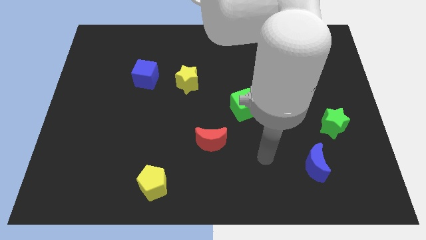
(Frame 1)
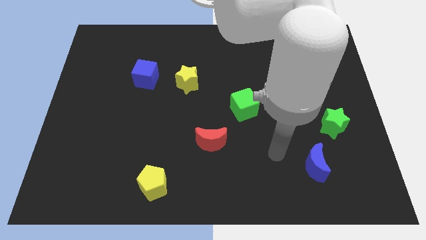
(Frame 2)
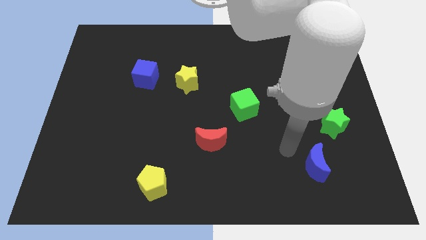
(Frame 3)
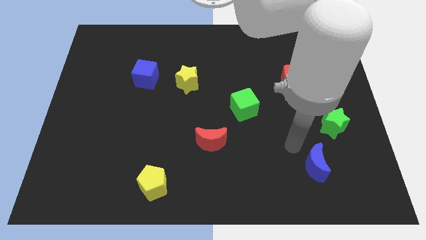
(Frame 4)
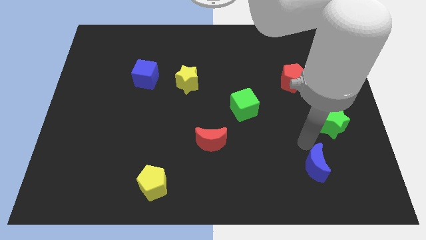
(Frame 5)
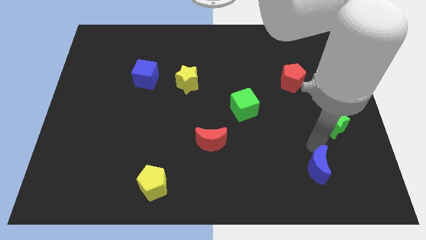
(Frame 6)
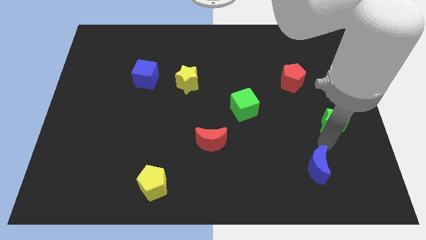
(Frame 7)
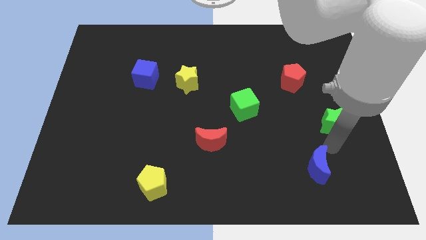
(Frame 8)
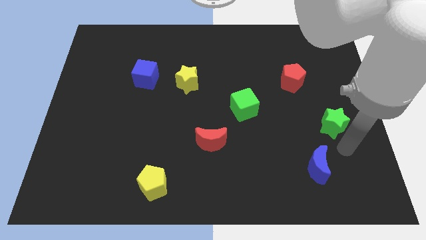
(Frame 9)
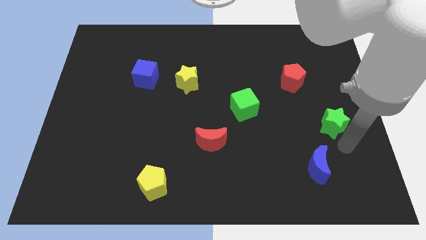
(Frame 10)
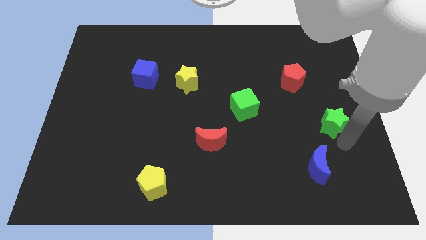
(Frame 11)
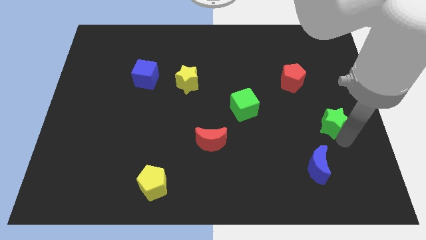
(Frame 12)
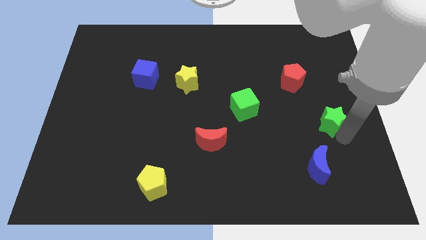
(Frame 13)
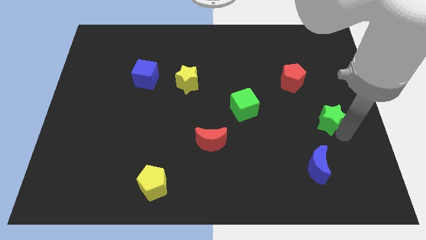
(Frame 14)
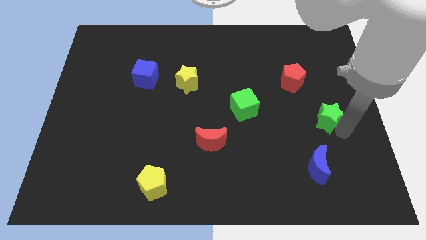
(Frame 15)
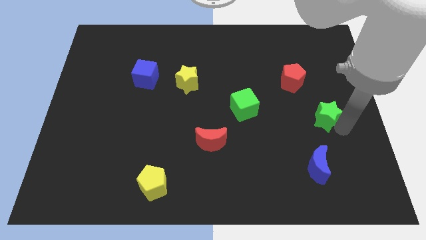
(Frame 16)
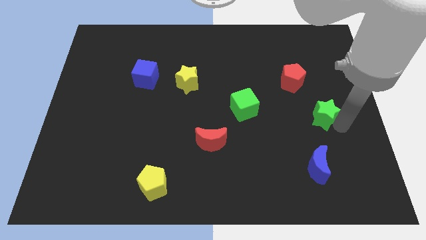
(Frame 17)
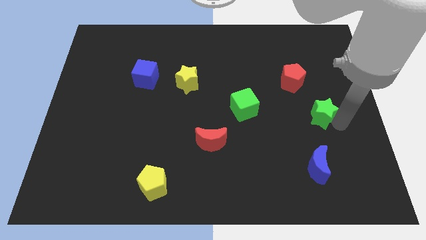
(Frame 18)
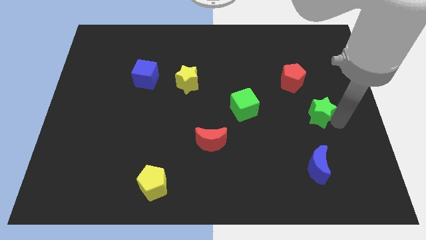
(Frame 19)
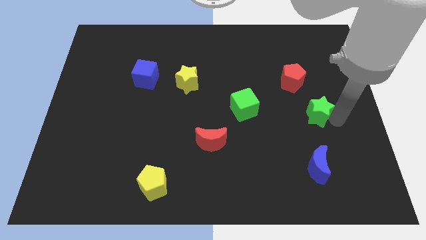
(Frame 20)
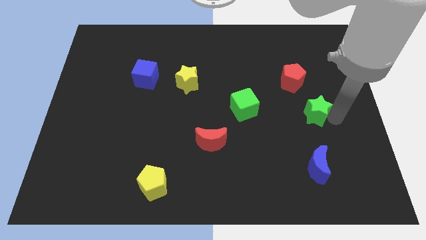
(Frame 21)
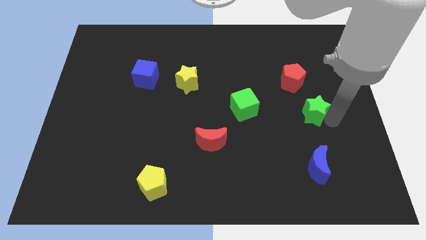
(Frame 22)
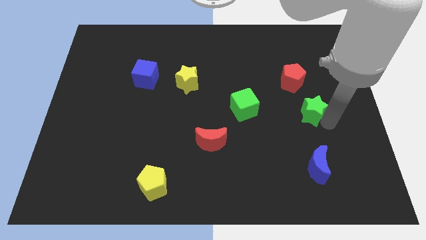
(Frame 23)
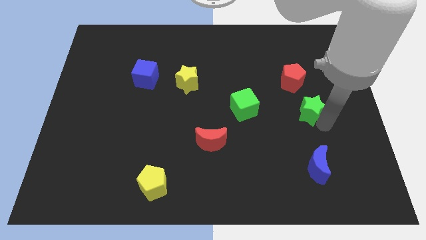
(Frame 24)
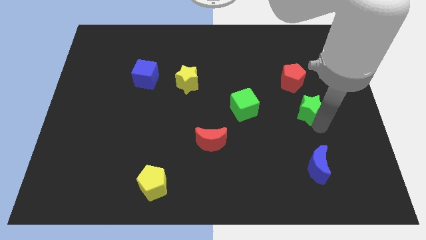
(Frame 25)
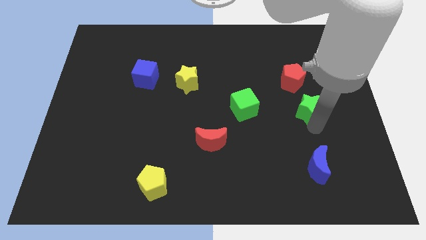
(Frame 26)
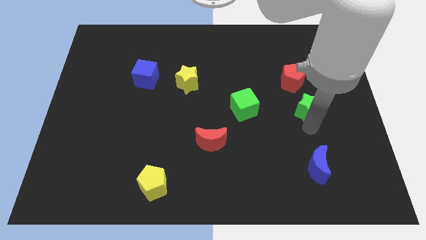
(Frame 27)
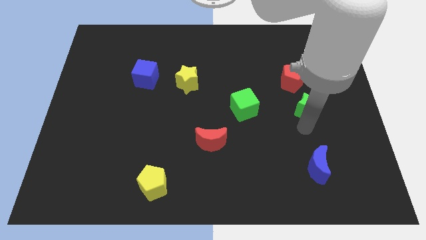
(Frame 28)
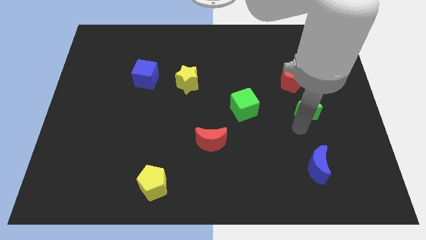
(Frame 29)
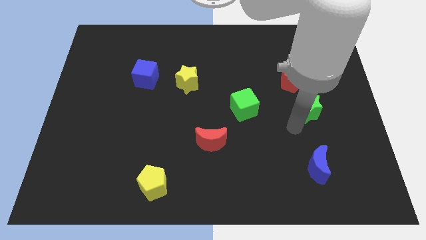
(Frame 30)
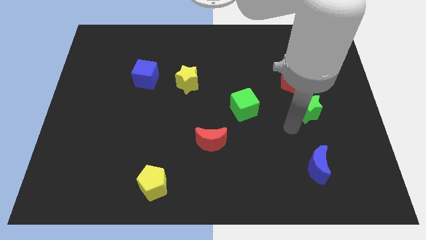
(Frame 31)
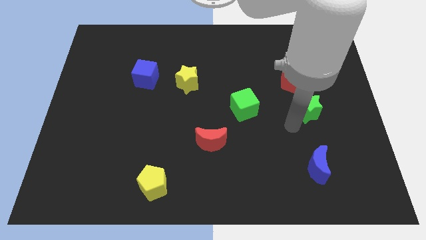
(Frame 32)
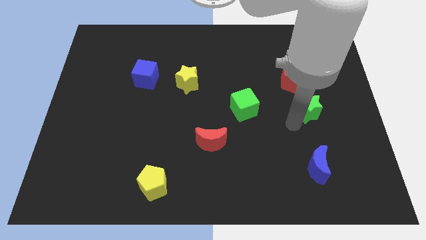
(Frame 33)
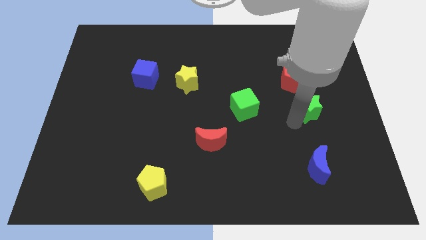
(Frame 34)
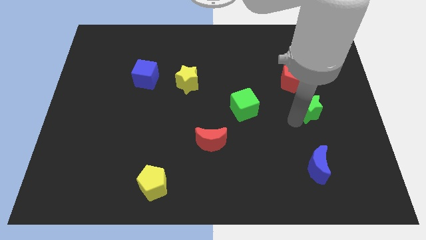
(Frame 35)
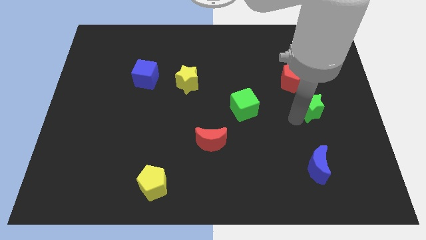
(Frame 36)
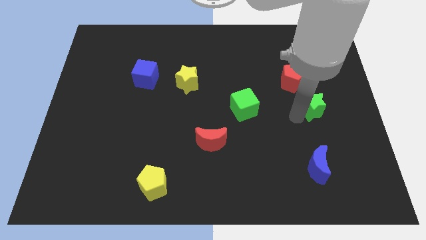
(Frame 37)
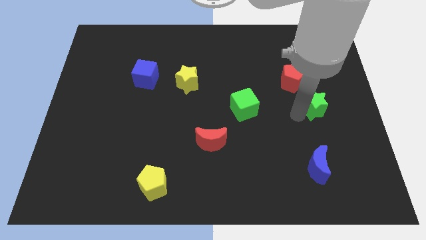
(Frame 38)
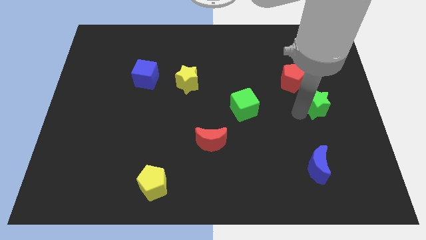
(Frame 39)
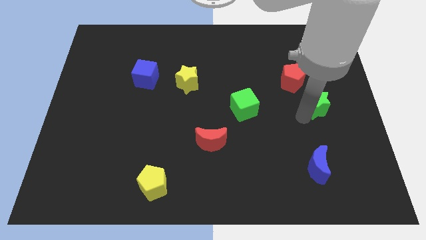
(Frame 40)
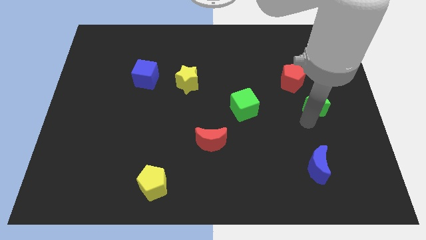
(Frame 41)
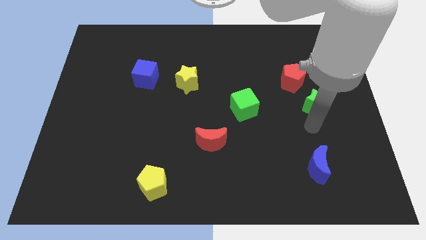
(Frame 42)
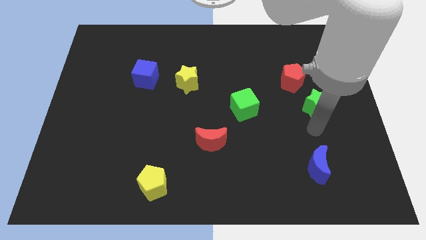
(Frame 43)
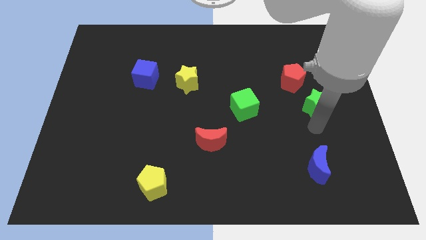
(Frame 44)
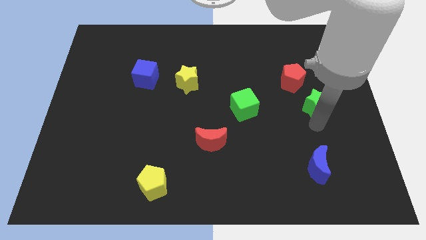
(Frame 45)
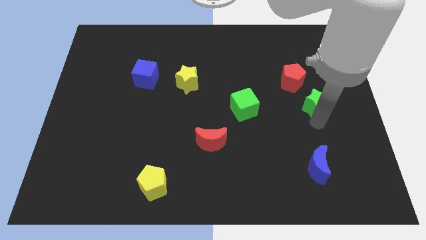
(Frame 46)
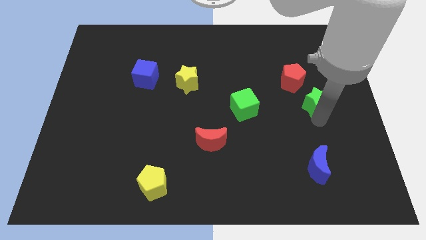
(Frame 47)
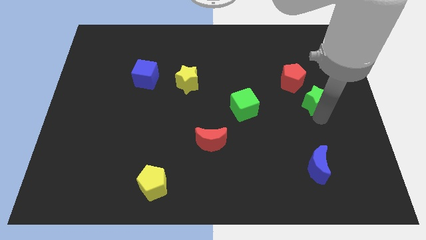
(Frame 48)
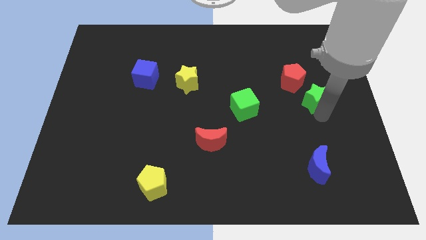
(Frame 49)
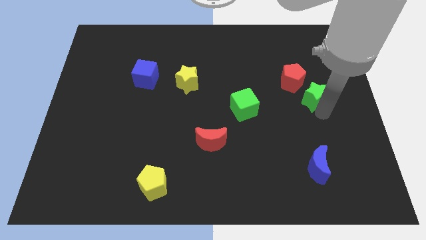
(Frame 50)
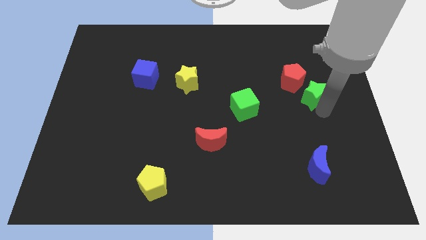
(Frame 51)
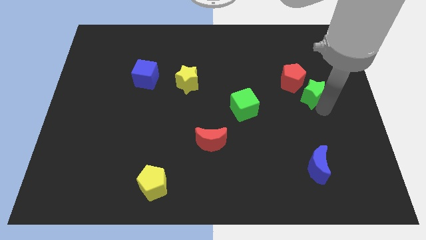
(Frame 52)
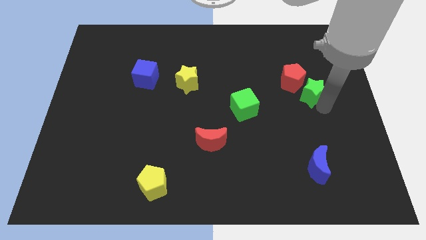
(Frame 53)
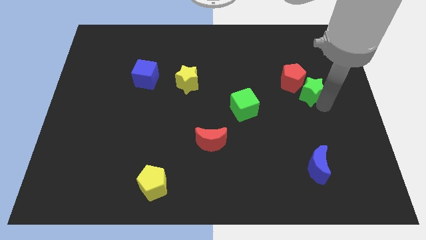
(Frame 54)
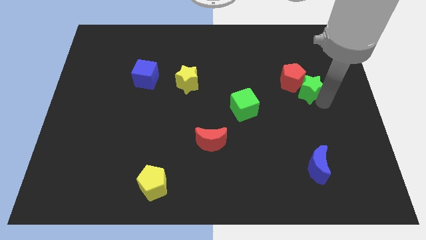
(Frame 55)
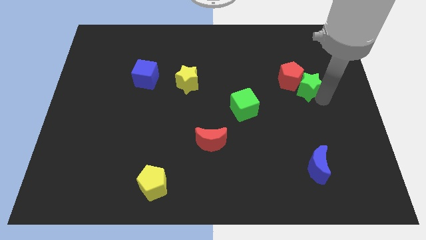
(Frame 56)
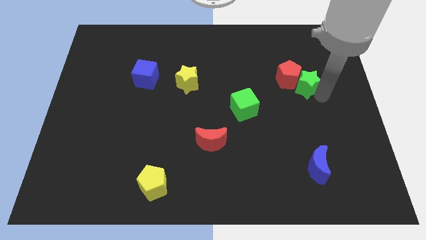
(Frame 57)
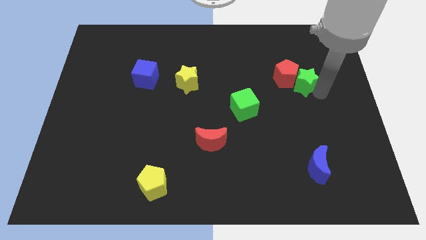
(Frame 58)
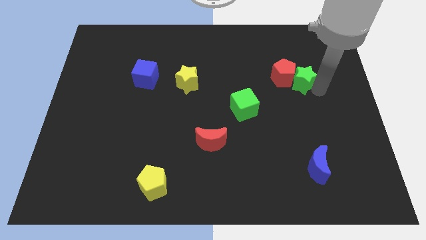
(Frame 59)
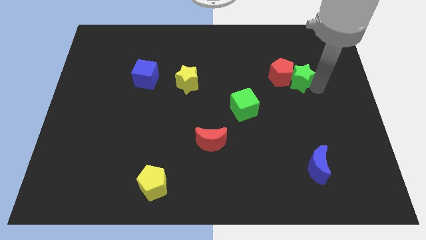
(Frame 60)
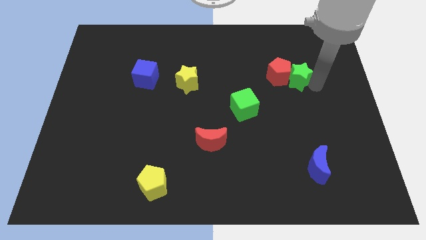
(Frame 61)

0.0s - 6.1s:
move the green star to the top right side of the red pentagon

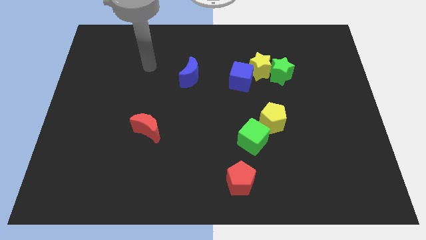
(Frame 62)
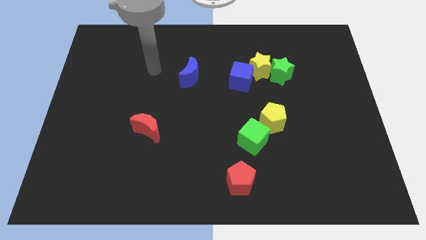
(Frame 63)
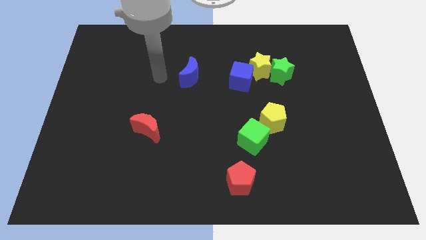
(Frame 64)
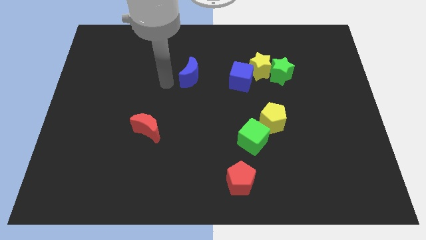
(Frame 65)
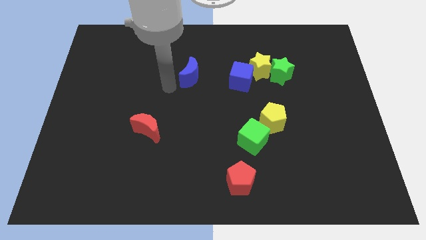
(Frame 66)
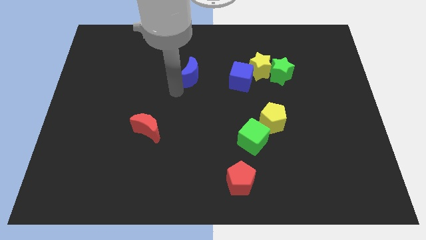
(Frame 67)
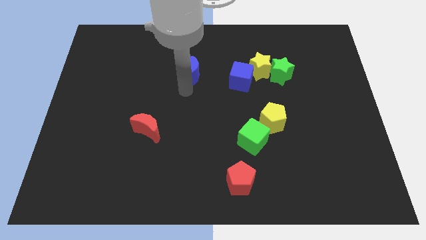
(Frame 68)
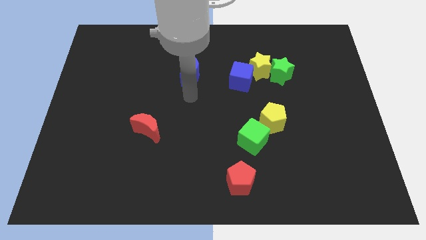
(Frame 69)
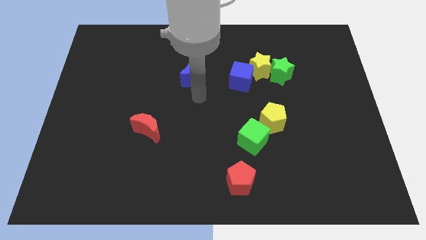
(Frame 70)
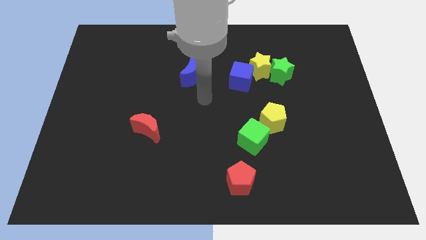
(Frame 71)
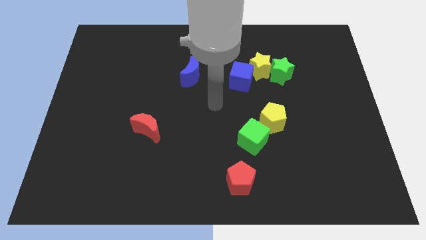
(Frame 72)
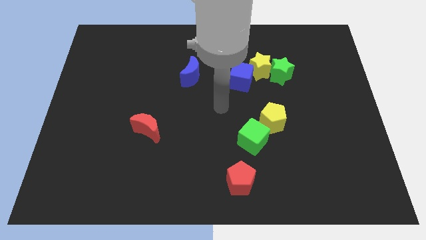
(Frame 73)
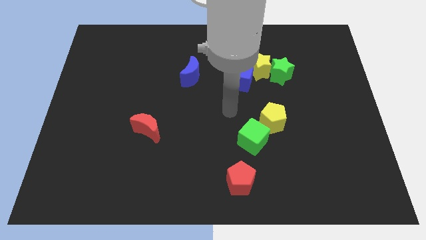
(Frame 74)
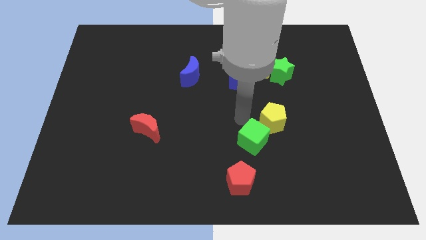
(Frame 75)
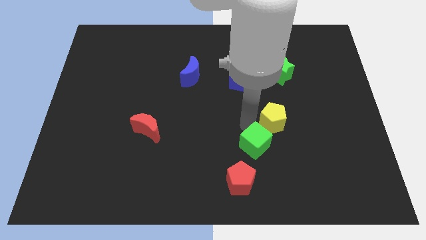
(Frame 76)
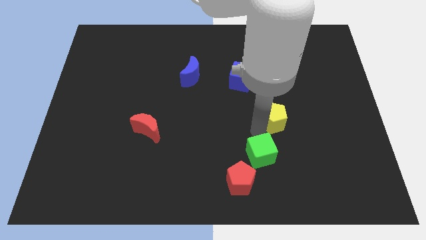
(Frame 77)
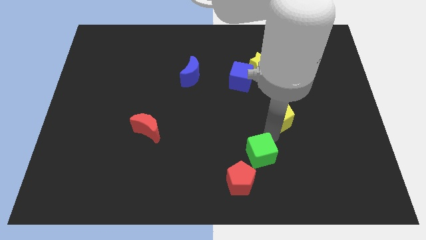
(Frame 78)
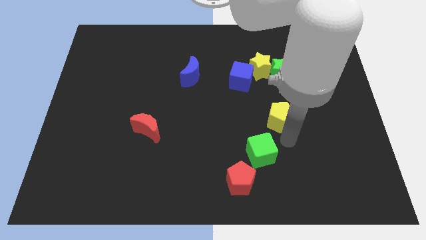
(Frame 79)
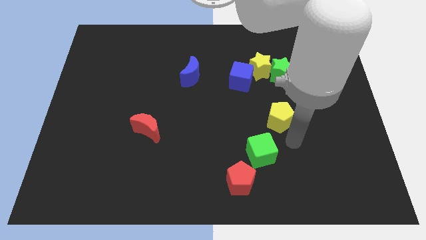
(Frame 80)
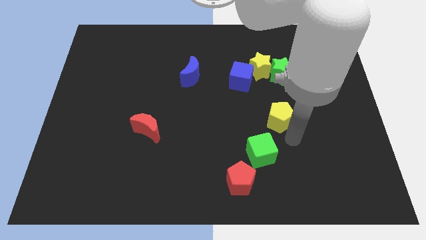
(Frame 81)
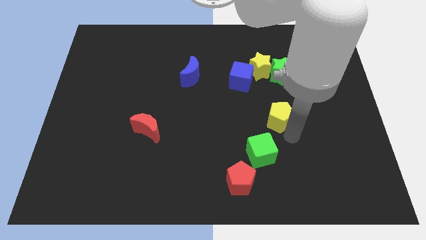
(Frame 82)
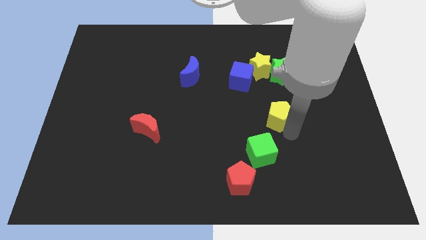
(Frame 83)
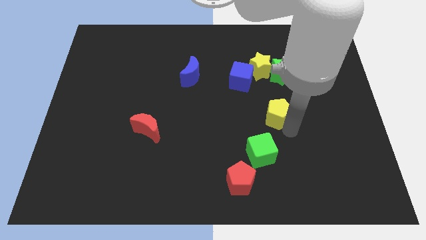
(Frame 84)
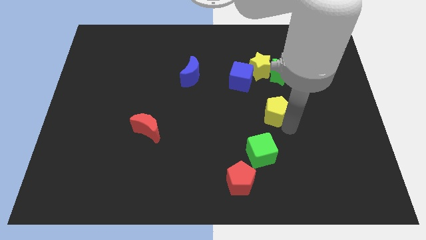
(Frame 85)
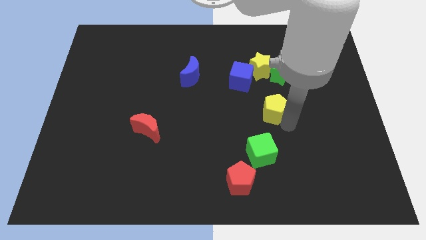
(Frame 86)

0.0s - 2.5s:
put the yellow pentagon to the bottom right of the blue cube
